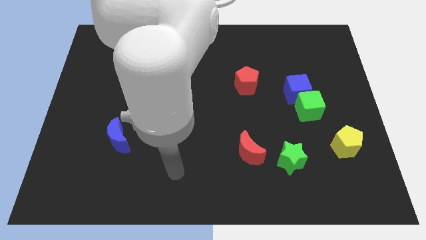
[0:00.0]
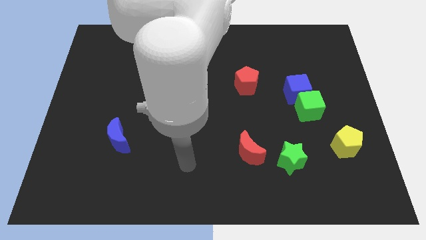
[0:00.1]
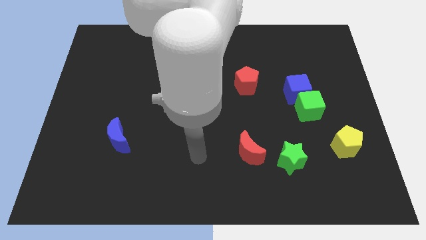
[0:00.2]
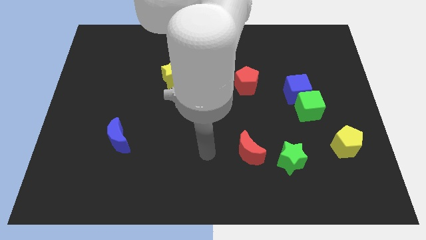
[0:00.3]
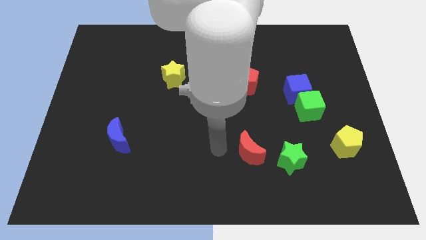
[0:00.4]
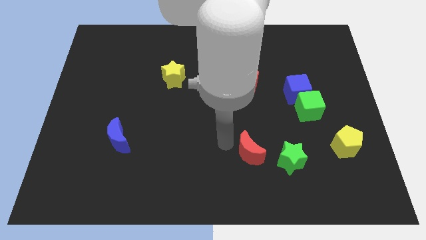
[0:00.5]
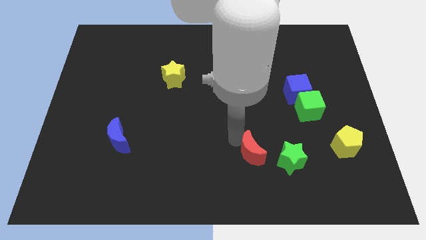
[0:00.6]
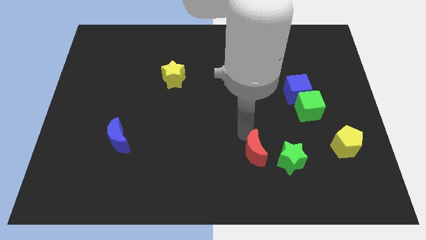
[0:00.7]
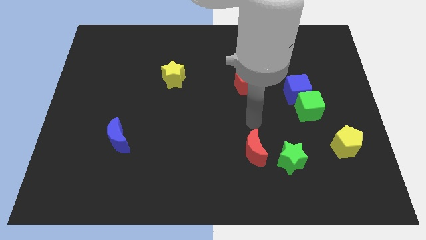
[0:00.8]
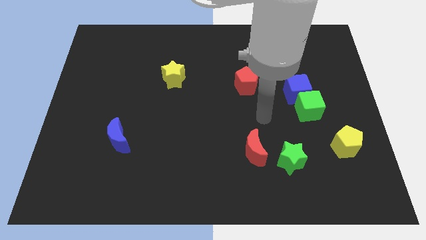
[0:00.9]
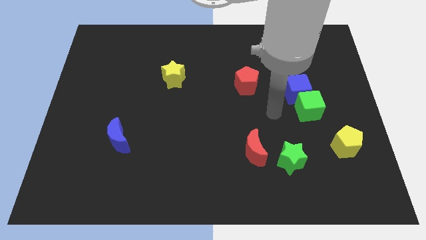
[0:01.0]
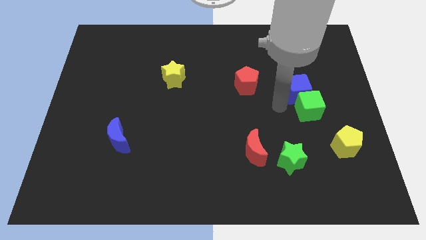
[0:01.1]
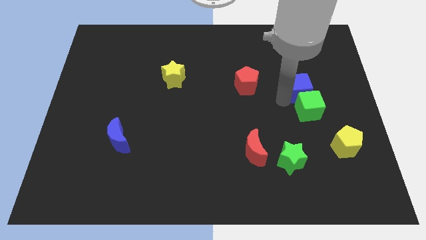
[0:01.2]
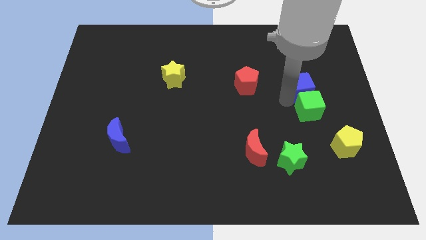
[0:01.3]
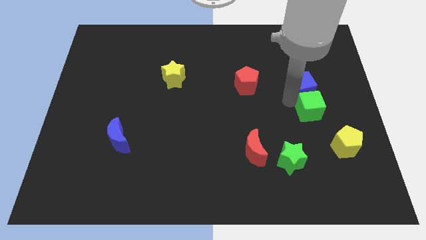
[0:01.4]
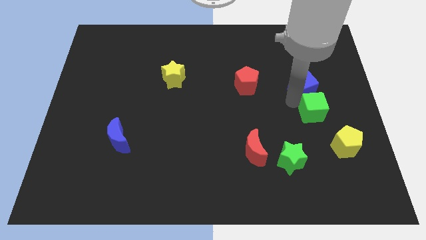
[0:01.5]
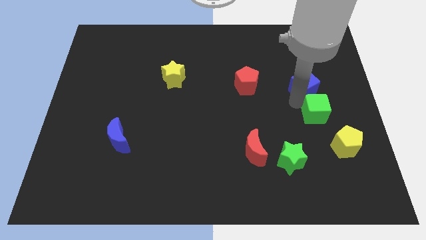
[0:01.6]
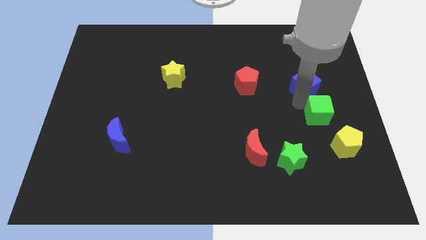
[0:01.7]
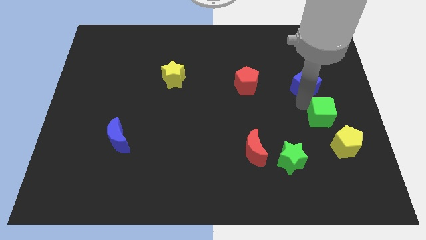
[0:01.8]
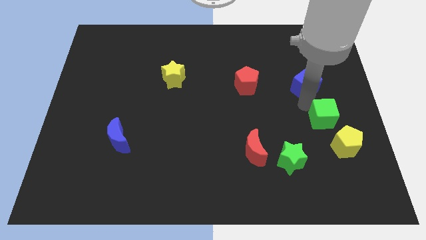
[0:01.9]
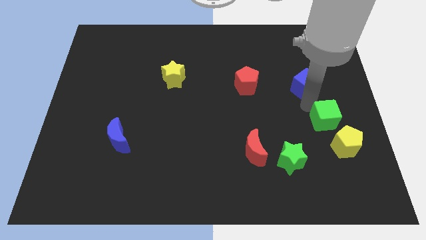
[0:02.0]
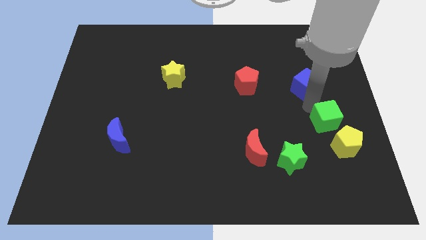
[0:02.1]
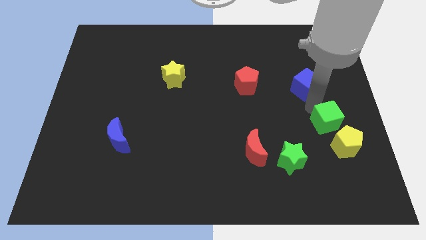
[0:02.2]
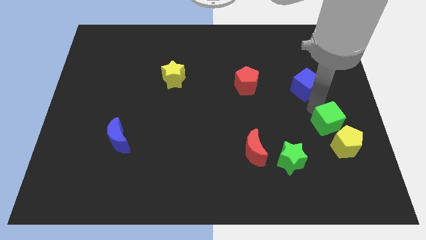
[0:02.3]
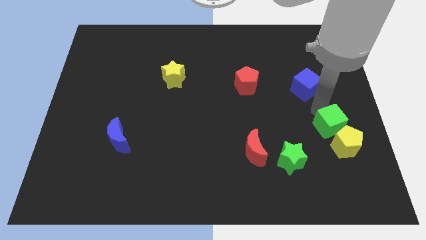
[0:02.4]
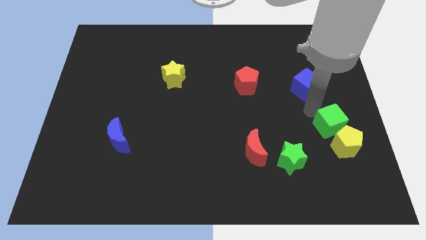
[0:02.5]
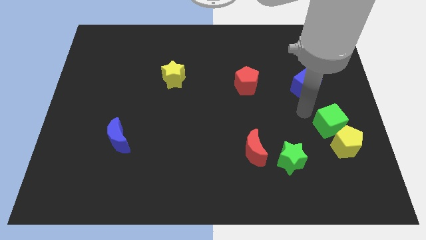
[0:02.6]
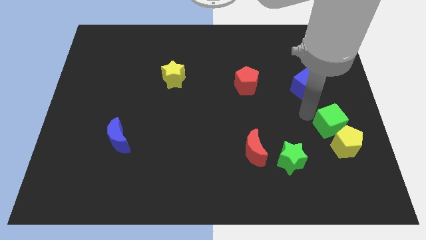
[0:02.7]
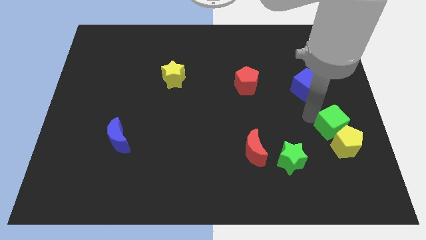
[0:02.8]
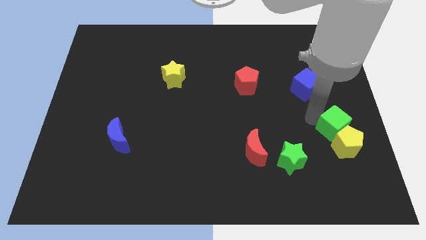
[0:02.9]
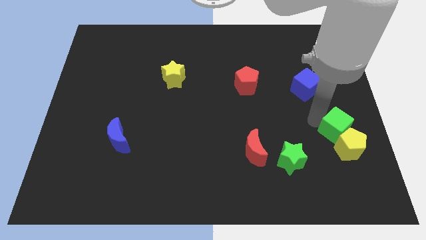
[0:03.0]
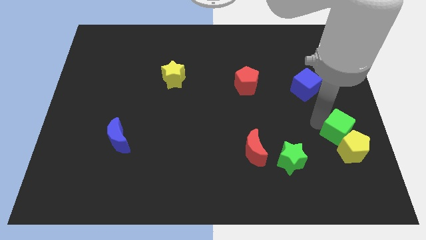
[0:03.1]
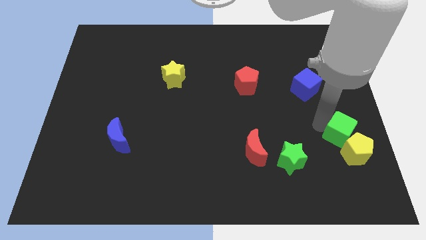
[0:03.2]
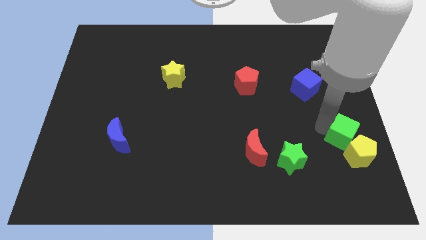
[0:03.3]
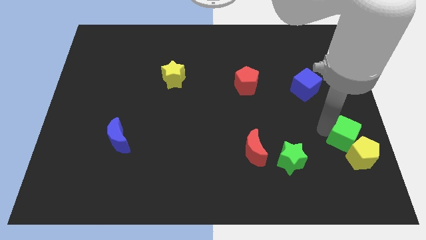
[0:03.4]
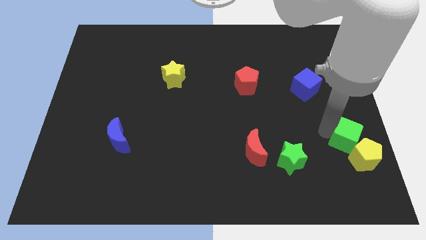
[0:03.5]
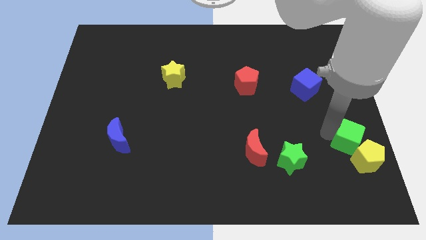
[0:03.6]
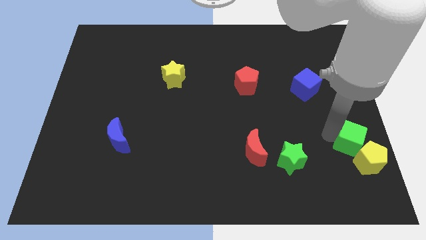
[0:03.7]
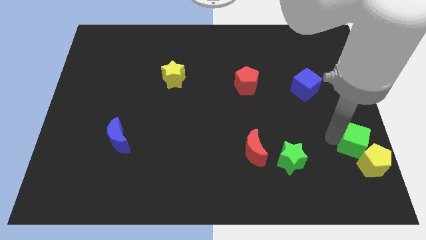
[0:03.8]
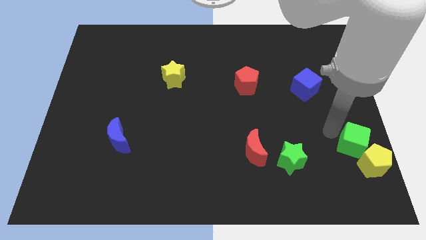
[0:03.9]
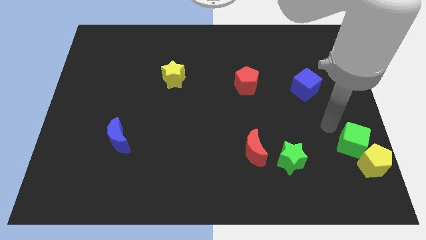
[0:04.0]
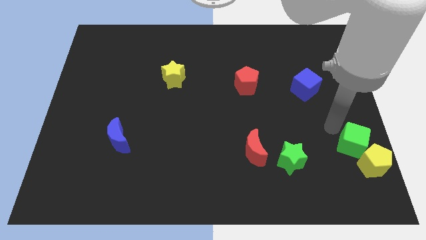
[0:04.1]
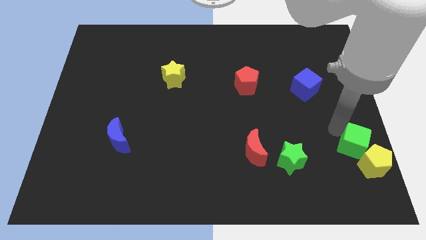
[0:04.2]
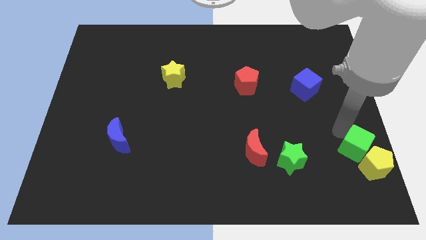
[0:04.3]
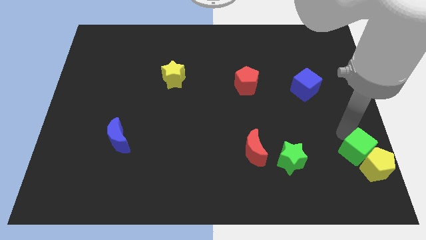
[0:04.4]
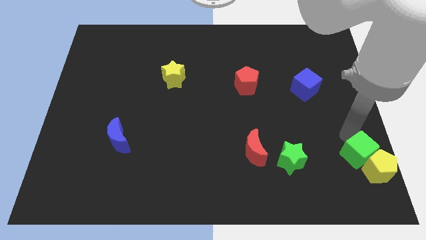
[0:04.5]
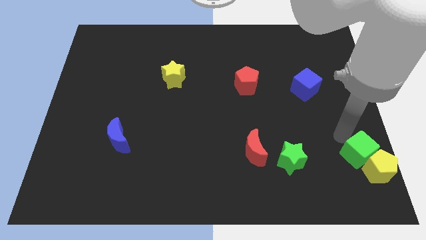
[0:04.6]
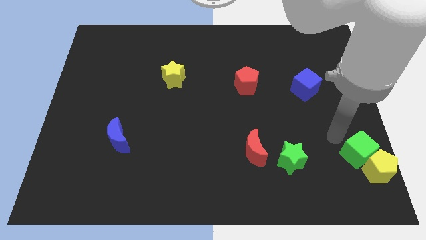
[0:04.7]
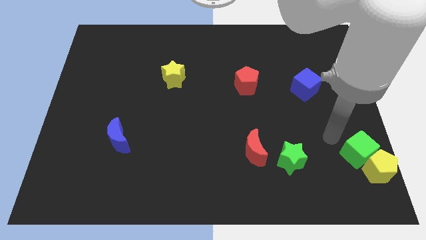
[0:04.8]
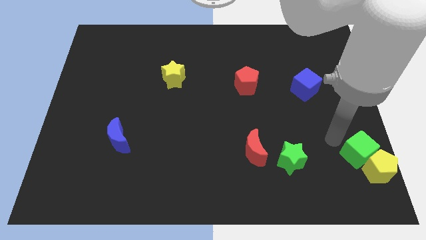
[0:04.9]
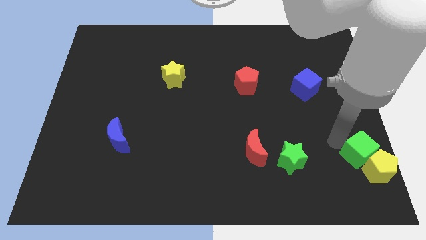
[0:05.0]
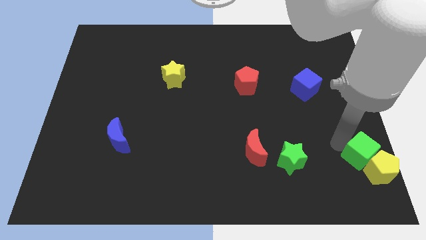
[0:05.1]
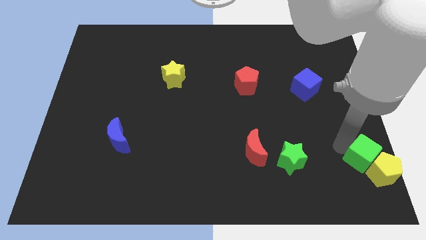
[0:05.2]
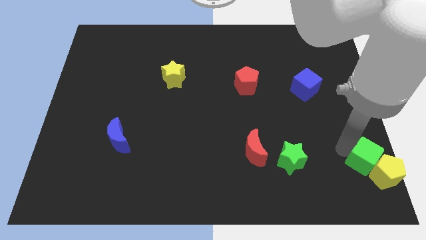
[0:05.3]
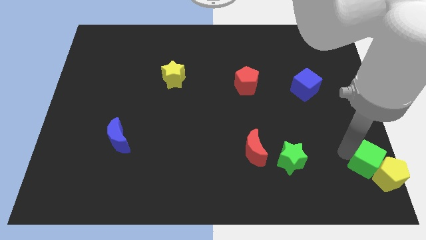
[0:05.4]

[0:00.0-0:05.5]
move the green cube to the bottom right of the board

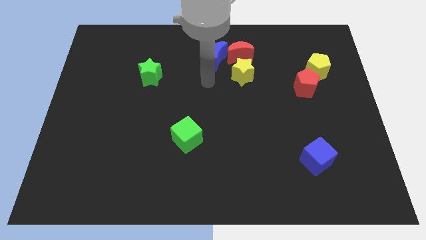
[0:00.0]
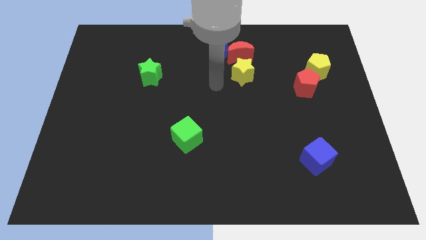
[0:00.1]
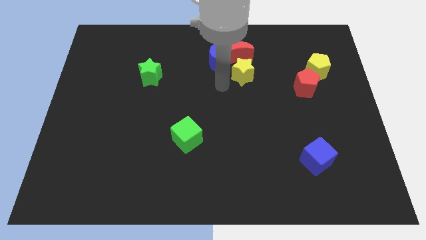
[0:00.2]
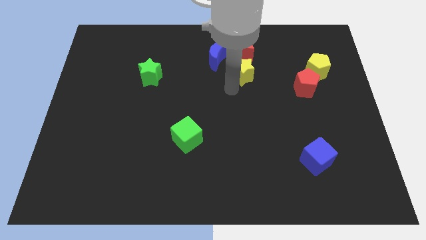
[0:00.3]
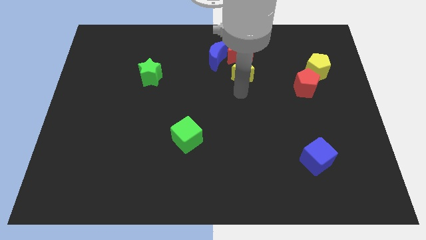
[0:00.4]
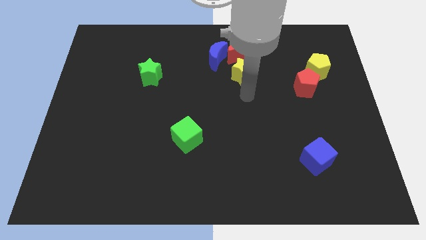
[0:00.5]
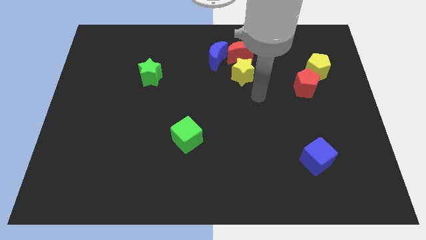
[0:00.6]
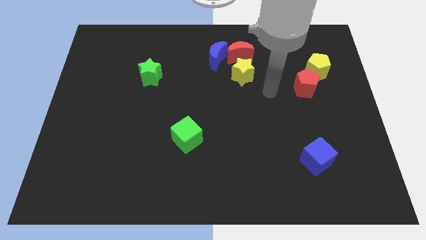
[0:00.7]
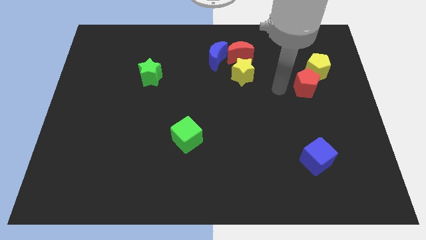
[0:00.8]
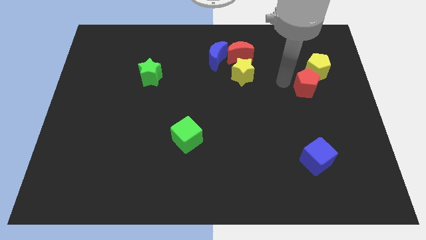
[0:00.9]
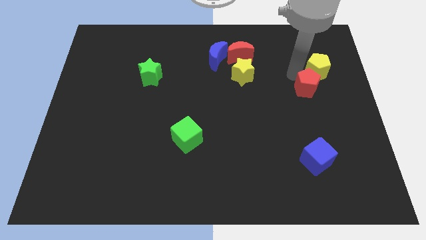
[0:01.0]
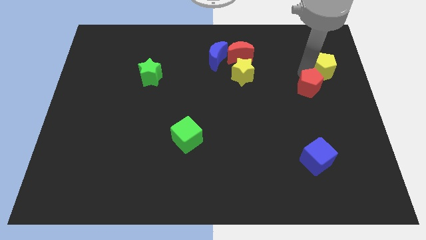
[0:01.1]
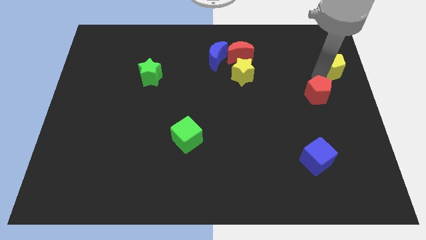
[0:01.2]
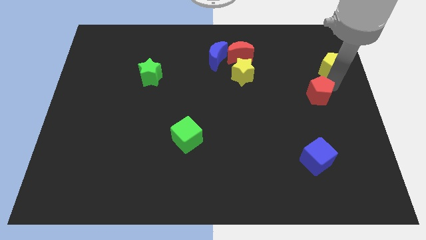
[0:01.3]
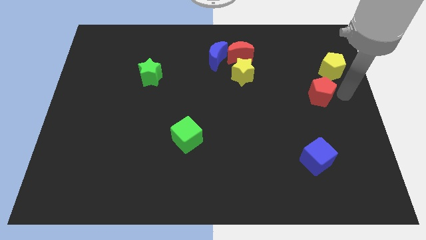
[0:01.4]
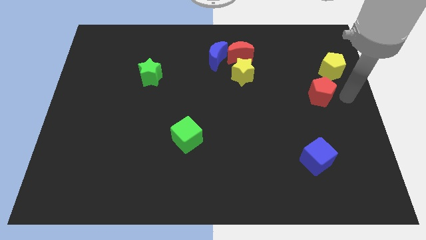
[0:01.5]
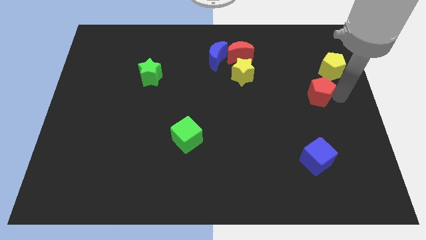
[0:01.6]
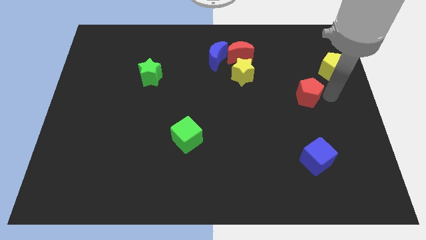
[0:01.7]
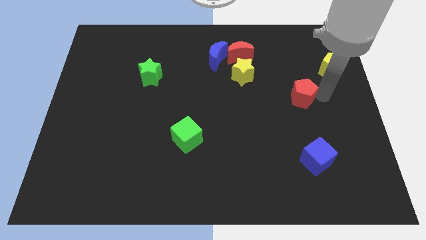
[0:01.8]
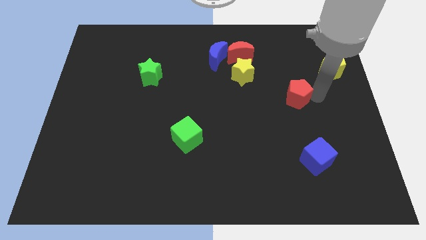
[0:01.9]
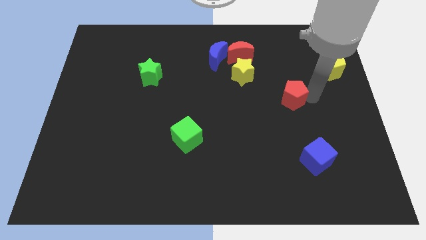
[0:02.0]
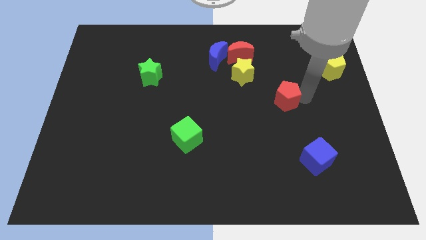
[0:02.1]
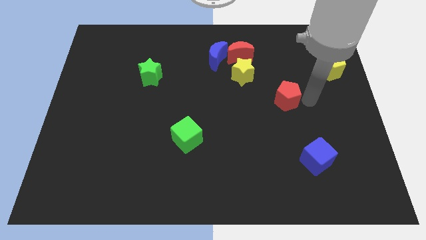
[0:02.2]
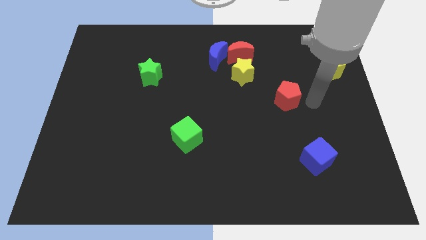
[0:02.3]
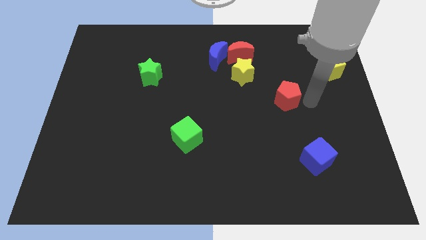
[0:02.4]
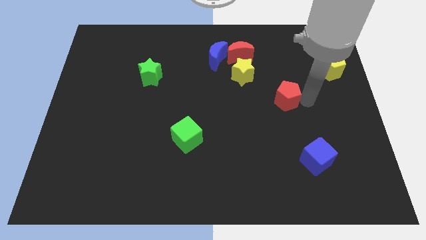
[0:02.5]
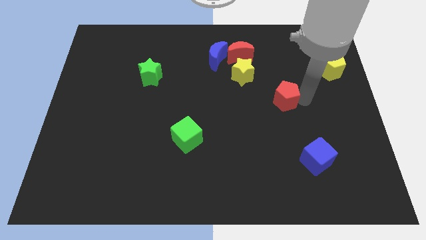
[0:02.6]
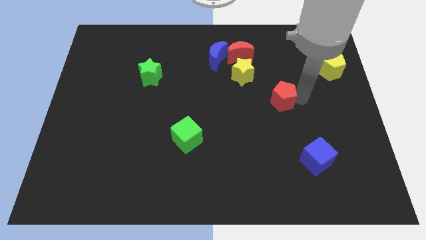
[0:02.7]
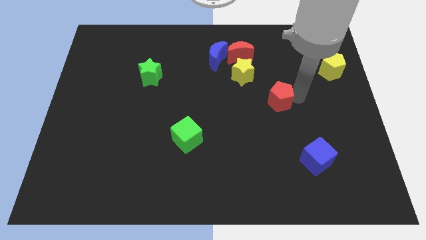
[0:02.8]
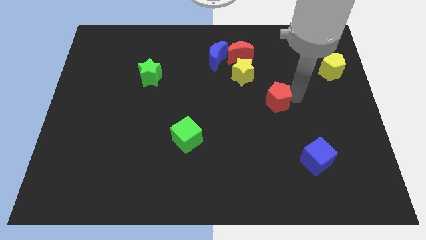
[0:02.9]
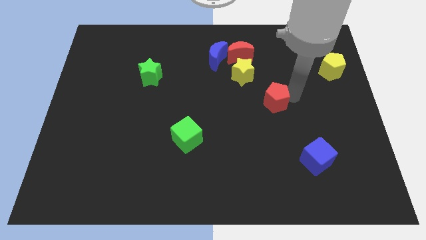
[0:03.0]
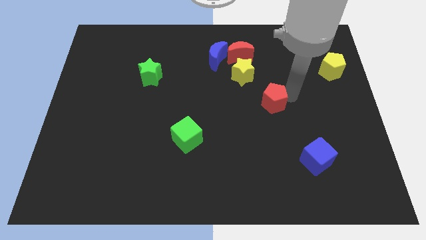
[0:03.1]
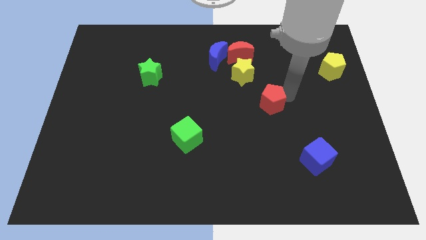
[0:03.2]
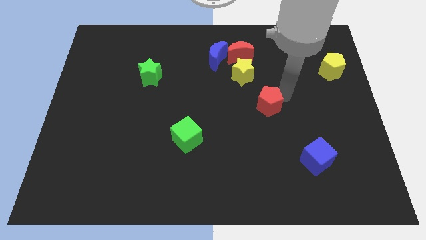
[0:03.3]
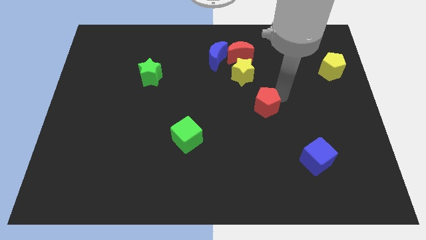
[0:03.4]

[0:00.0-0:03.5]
slide the red pentagon to the middle
